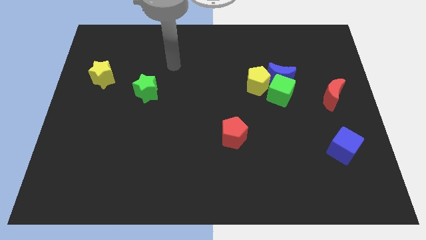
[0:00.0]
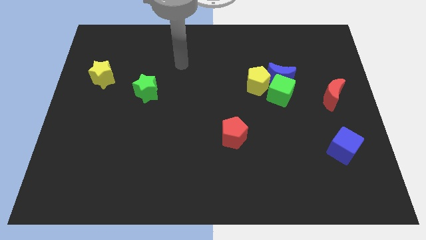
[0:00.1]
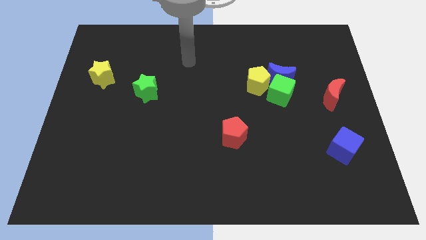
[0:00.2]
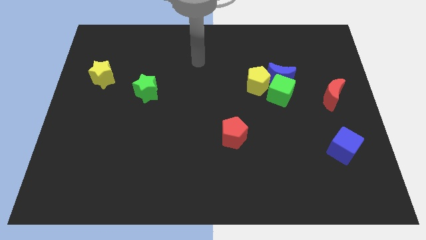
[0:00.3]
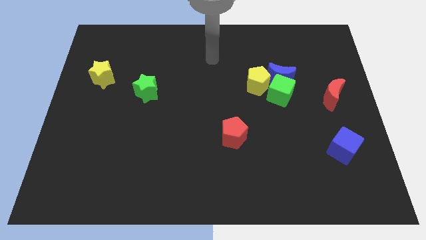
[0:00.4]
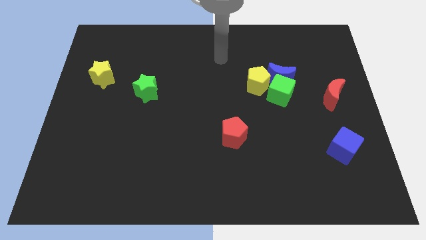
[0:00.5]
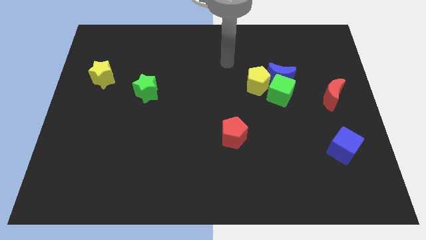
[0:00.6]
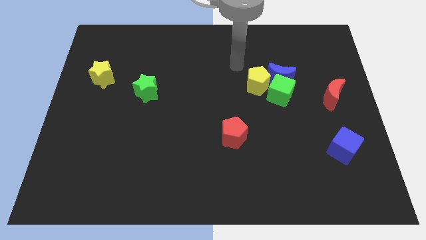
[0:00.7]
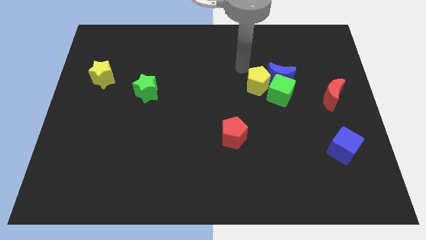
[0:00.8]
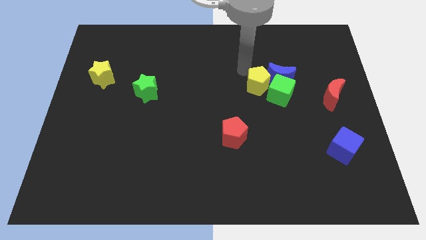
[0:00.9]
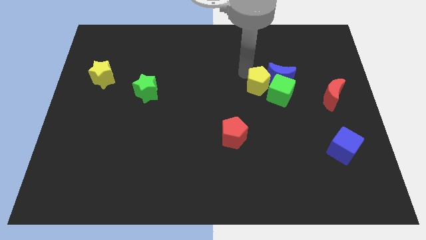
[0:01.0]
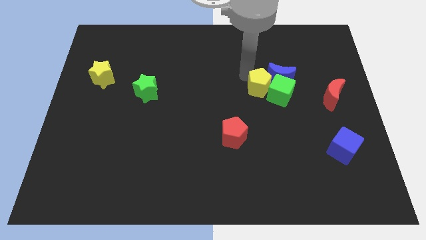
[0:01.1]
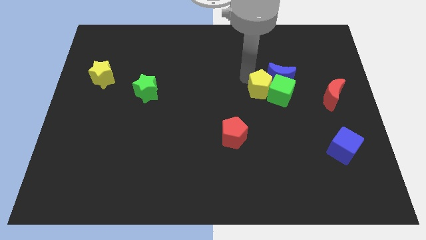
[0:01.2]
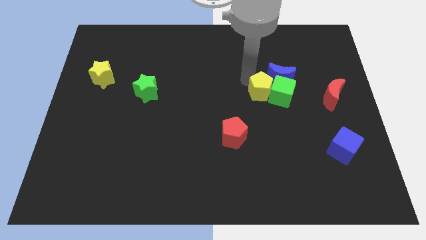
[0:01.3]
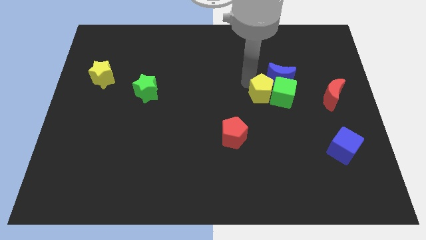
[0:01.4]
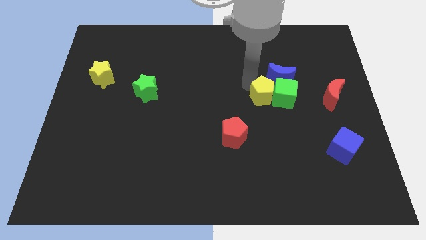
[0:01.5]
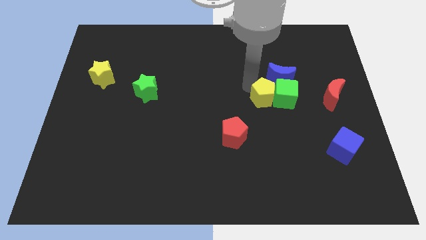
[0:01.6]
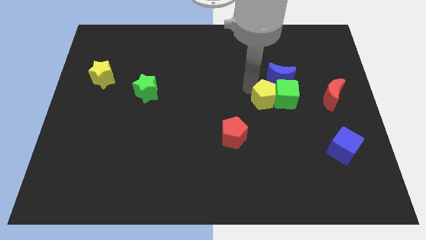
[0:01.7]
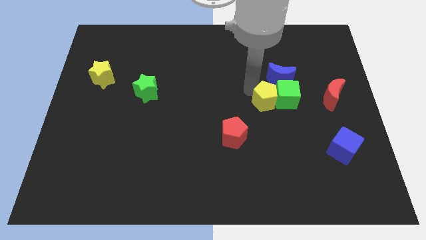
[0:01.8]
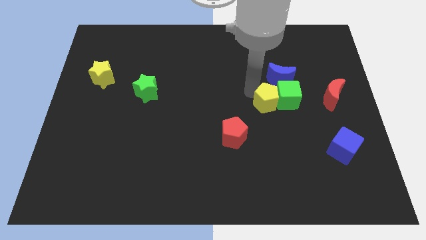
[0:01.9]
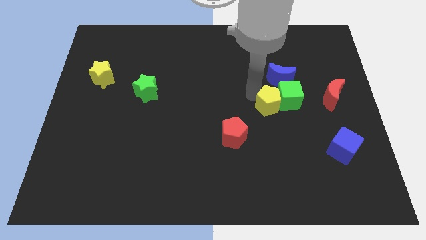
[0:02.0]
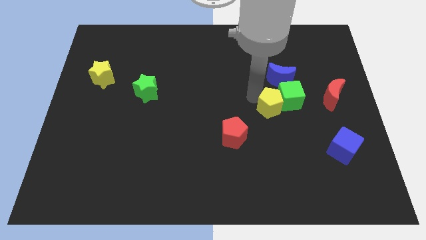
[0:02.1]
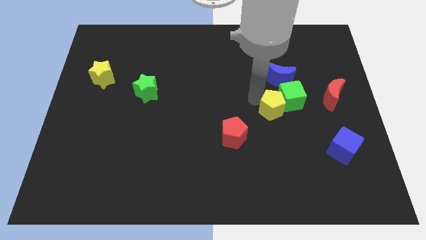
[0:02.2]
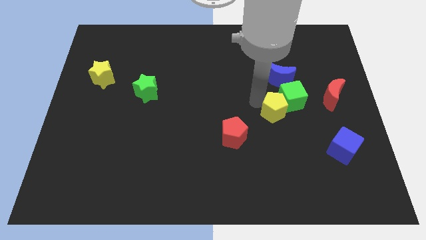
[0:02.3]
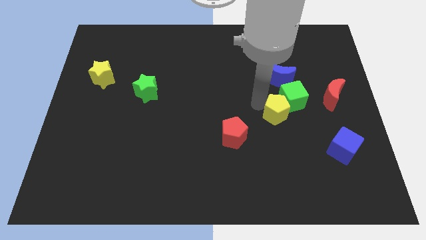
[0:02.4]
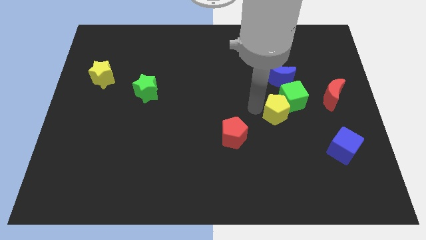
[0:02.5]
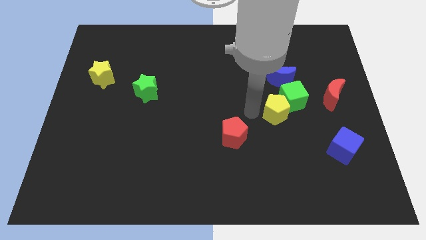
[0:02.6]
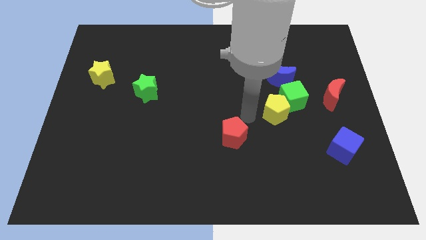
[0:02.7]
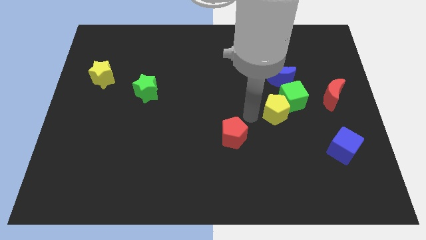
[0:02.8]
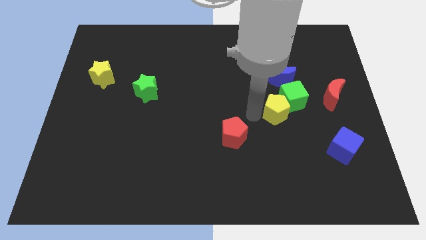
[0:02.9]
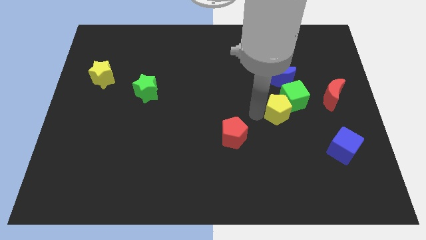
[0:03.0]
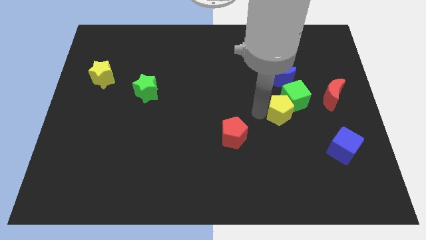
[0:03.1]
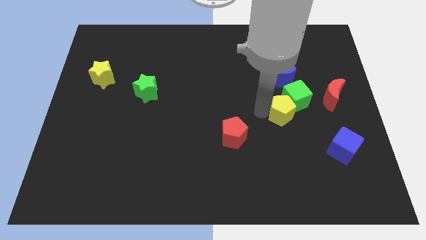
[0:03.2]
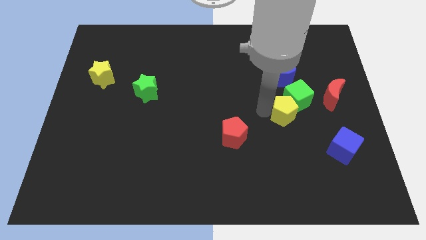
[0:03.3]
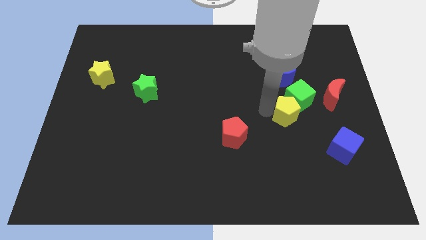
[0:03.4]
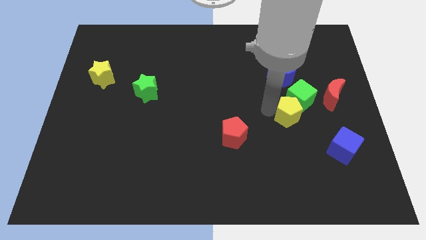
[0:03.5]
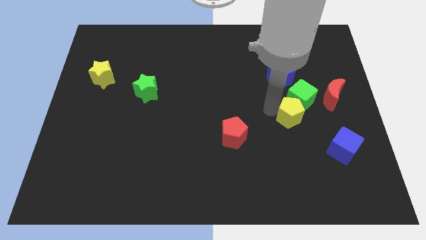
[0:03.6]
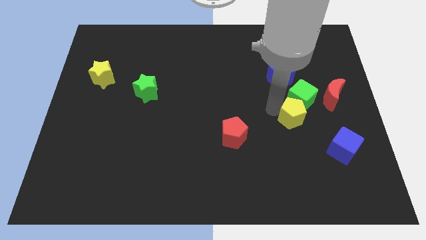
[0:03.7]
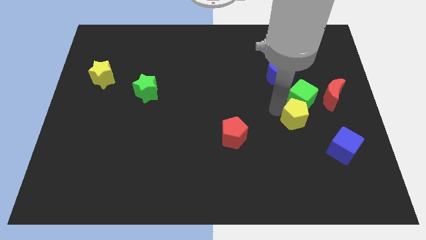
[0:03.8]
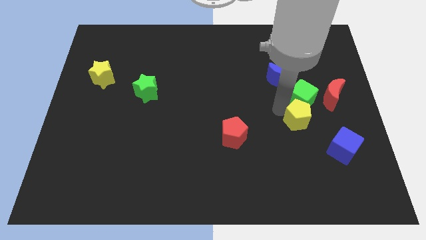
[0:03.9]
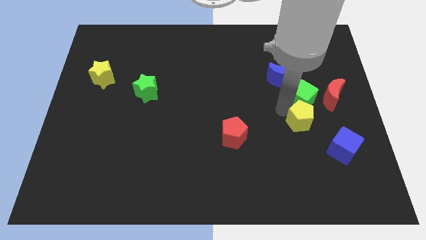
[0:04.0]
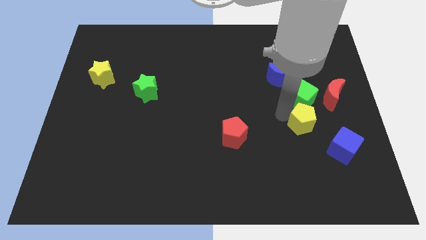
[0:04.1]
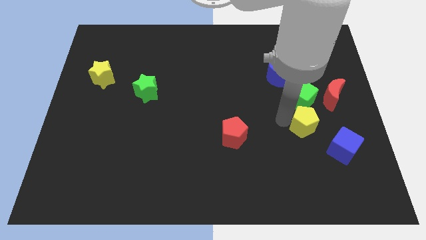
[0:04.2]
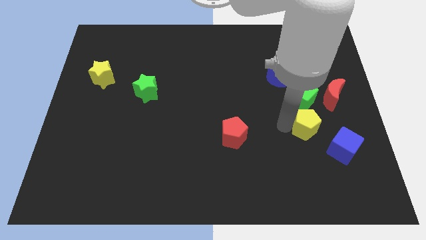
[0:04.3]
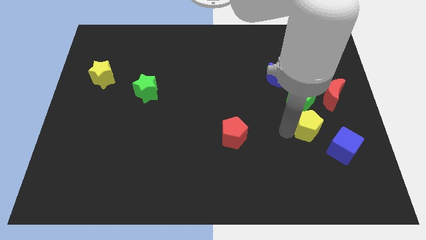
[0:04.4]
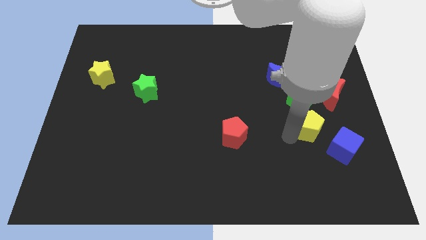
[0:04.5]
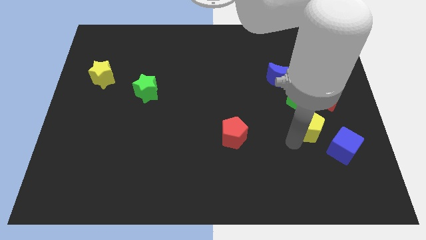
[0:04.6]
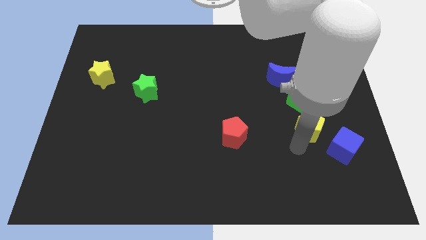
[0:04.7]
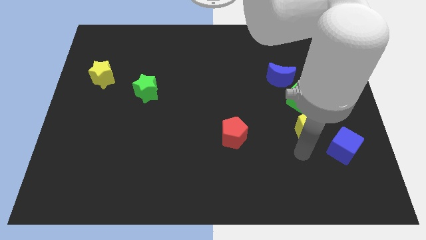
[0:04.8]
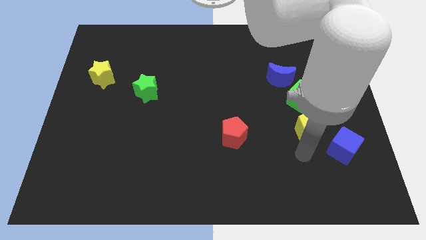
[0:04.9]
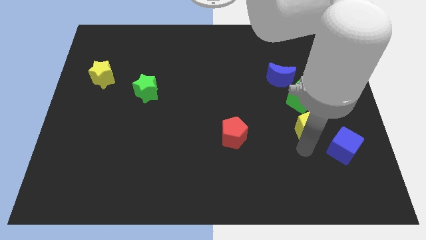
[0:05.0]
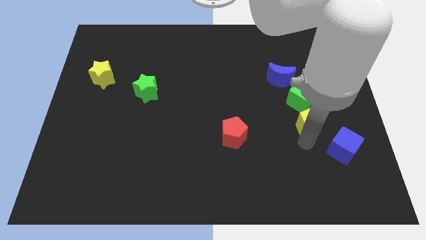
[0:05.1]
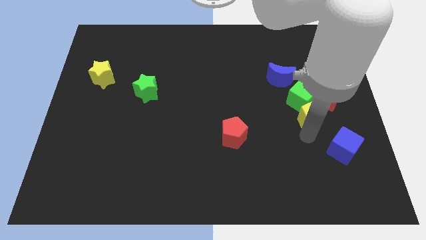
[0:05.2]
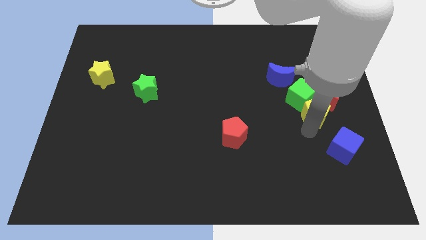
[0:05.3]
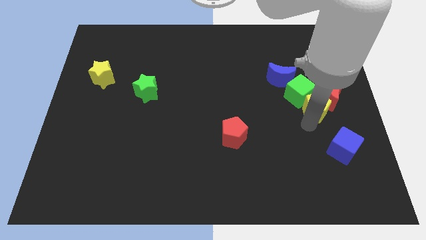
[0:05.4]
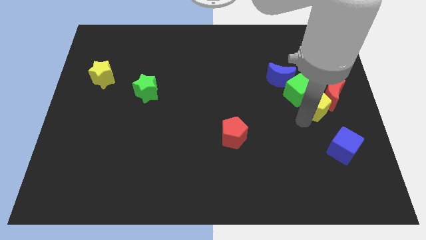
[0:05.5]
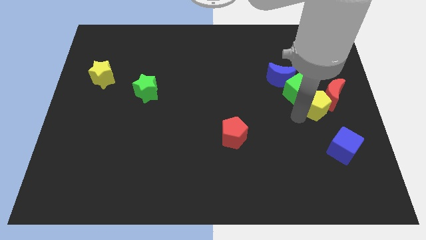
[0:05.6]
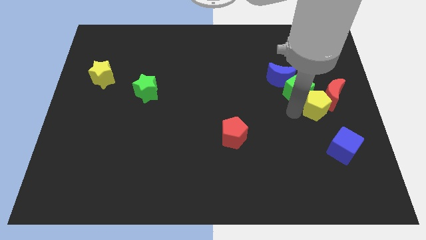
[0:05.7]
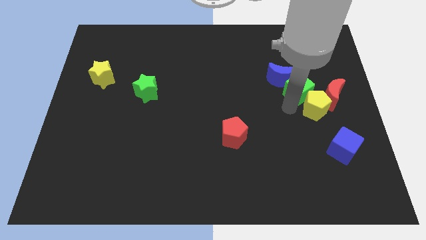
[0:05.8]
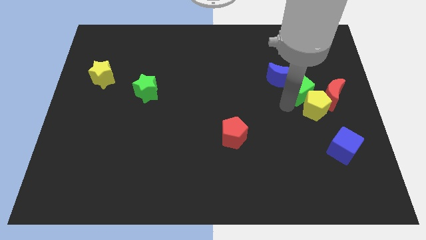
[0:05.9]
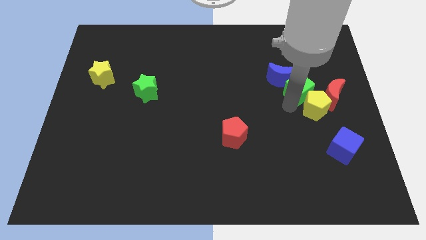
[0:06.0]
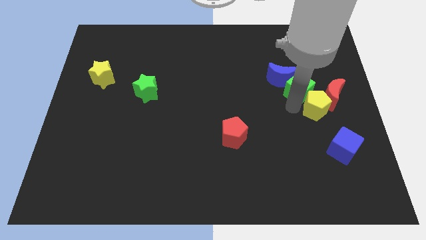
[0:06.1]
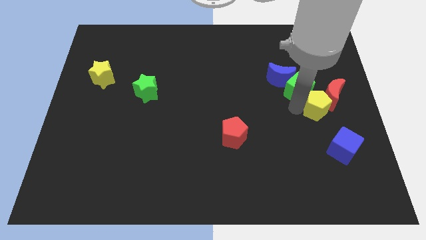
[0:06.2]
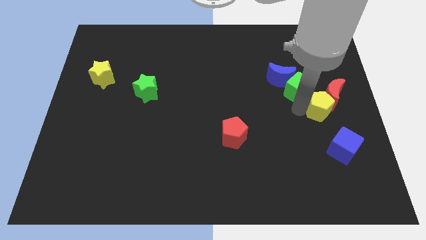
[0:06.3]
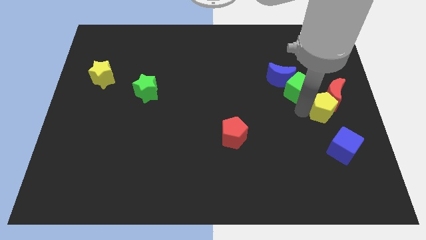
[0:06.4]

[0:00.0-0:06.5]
slide the yellow pentagon to the right side of the board

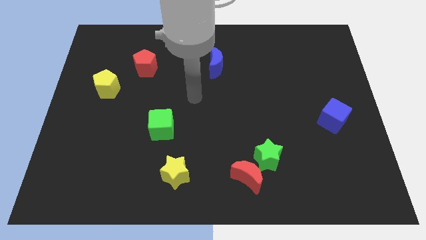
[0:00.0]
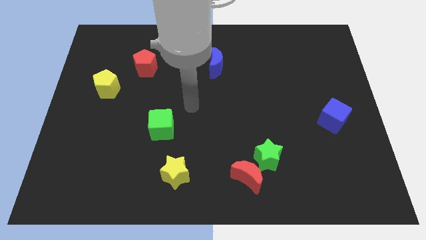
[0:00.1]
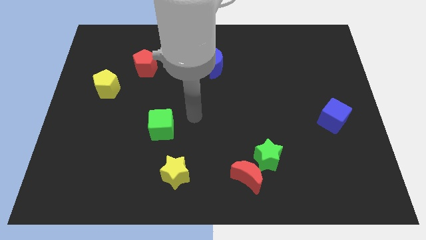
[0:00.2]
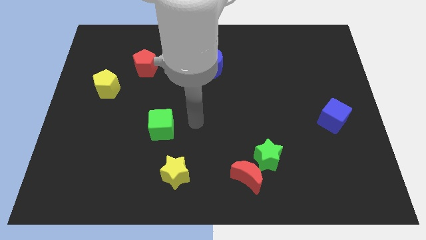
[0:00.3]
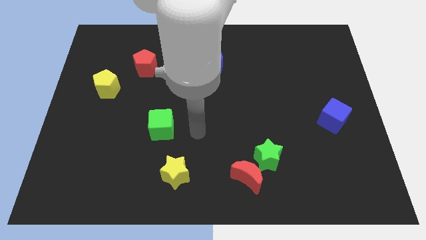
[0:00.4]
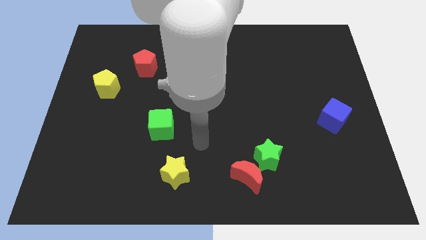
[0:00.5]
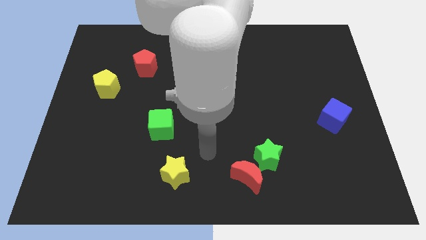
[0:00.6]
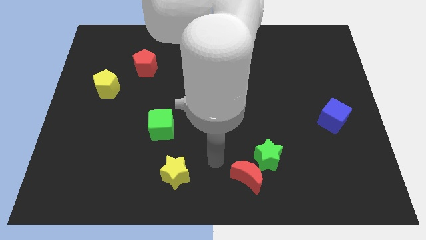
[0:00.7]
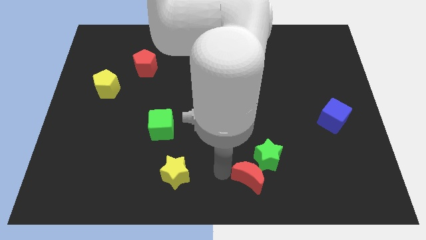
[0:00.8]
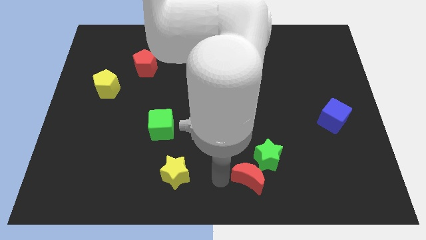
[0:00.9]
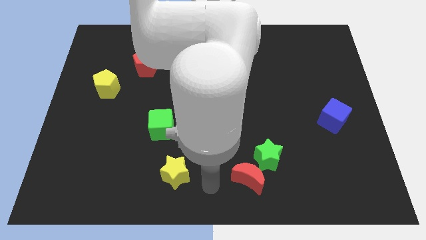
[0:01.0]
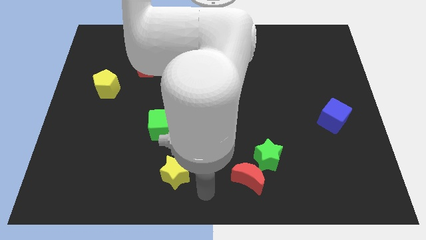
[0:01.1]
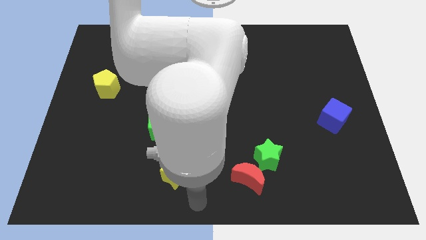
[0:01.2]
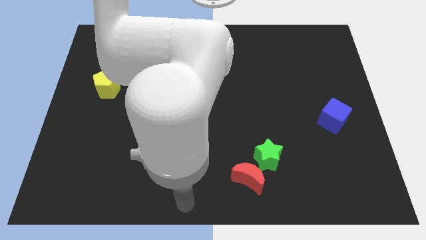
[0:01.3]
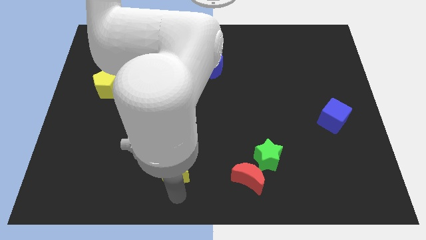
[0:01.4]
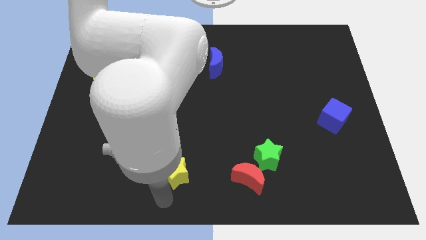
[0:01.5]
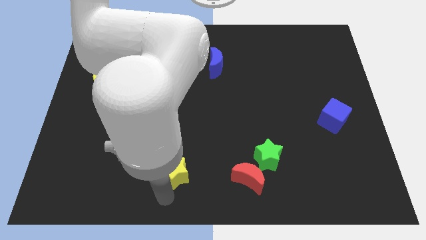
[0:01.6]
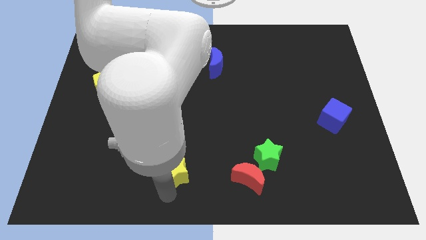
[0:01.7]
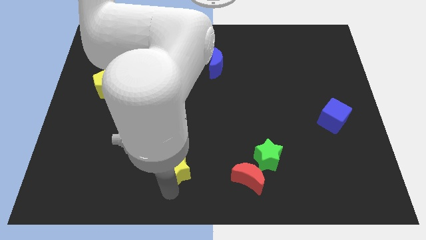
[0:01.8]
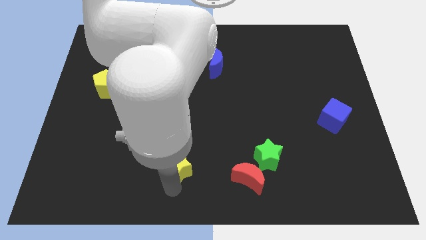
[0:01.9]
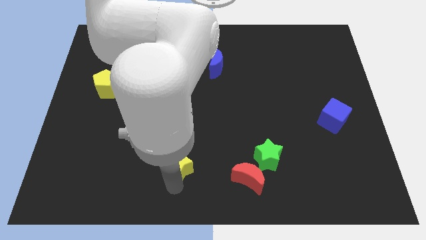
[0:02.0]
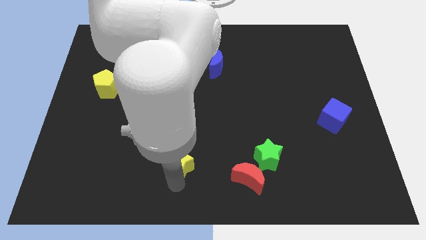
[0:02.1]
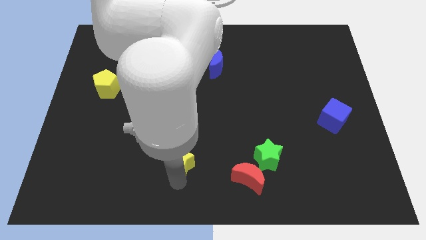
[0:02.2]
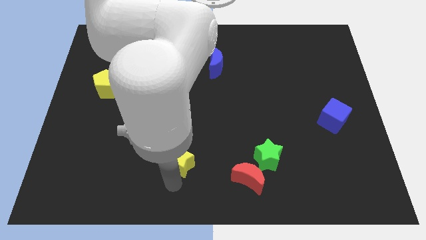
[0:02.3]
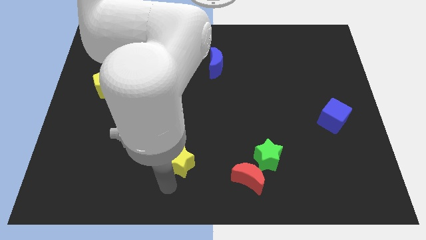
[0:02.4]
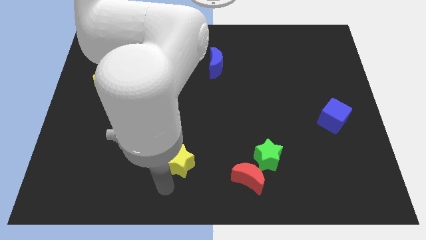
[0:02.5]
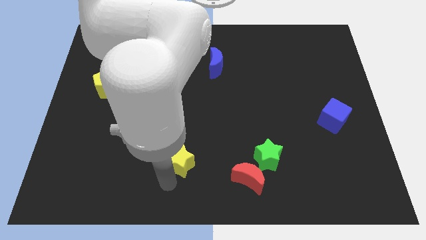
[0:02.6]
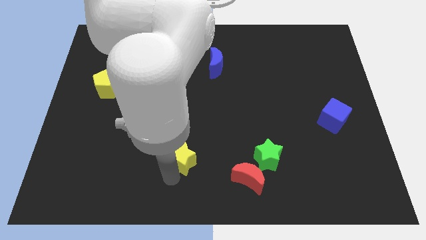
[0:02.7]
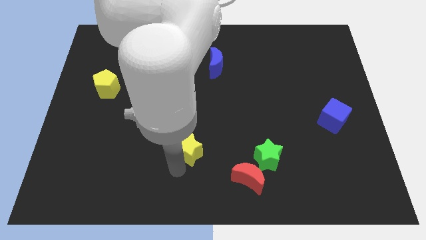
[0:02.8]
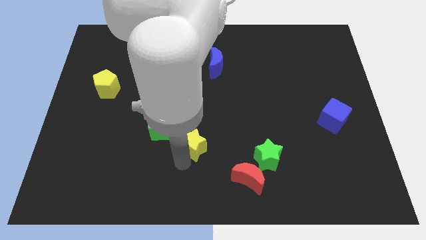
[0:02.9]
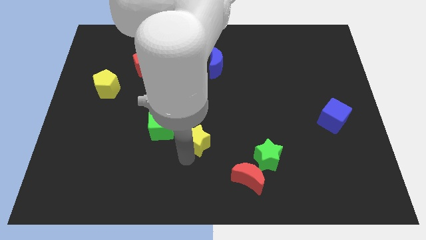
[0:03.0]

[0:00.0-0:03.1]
push the yellow star to the center of the board
